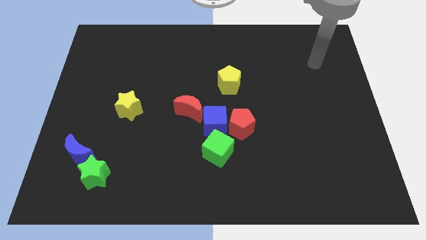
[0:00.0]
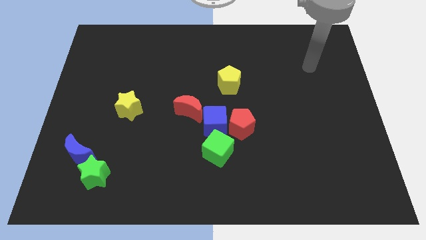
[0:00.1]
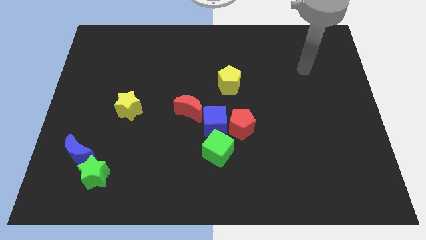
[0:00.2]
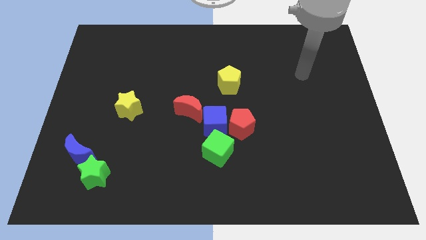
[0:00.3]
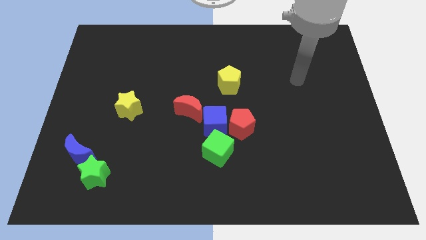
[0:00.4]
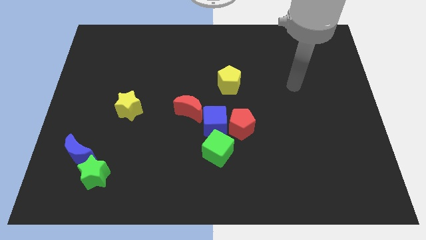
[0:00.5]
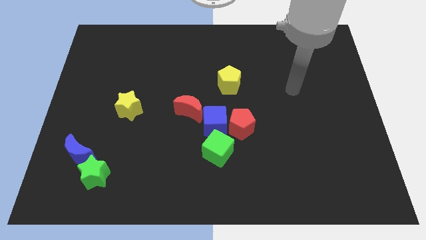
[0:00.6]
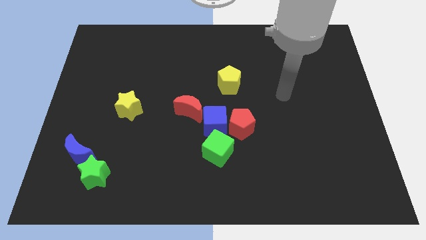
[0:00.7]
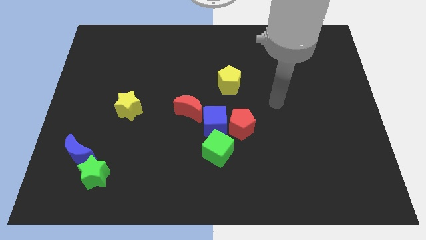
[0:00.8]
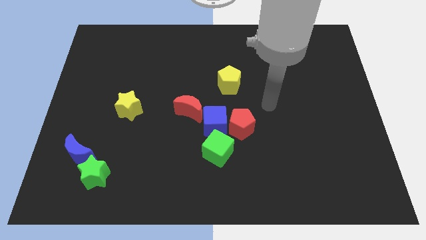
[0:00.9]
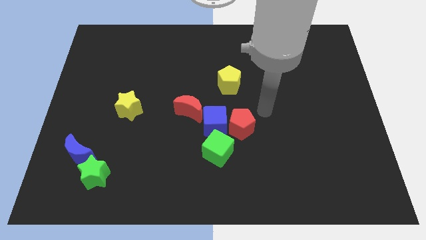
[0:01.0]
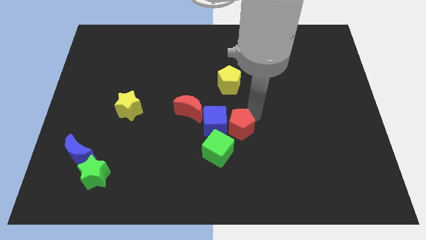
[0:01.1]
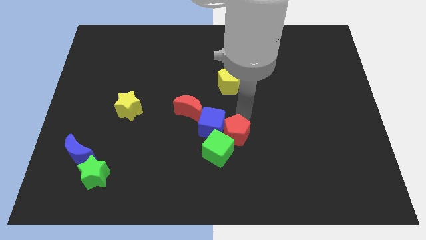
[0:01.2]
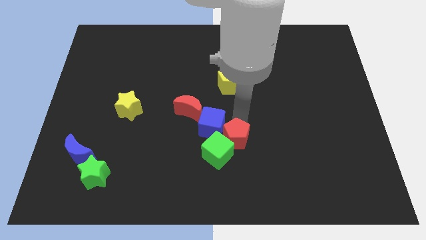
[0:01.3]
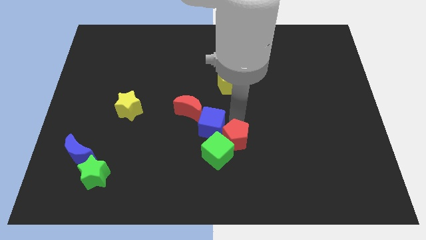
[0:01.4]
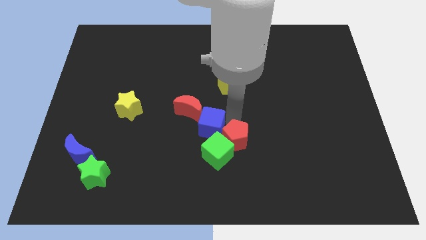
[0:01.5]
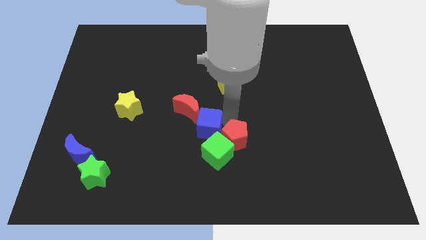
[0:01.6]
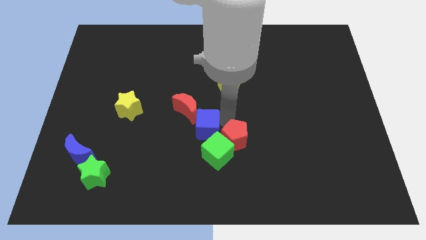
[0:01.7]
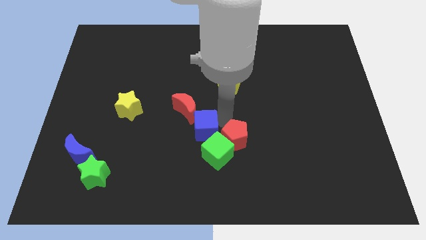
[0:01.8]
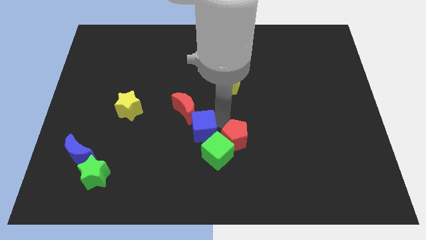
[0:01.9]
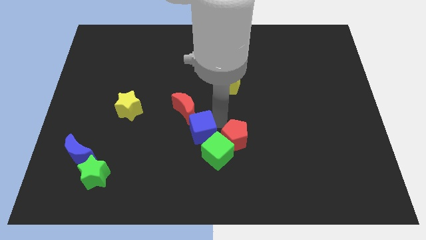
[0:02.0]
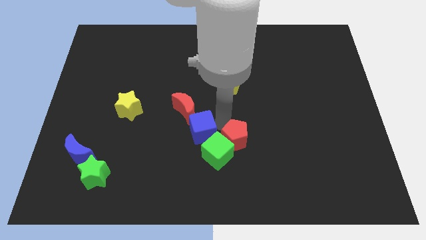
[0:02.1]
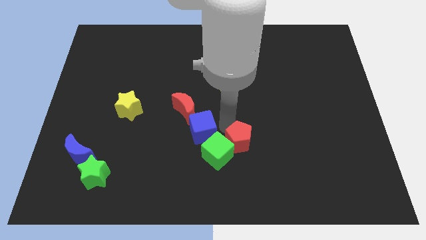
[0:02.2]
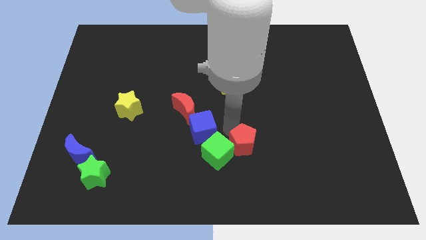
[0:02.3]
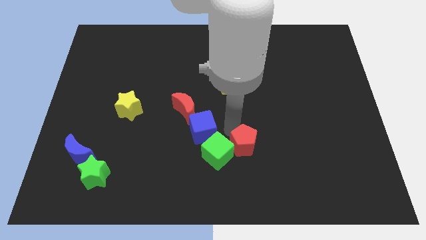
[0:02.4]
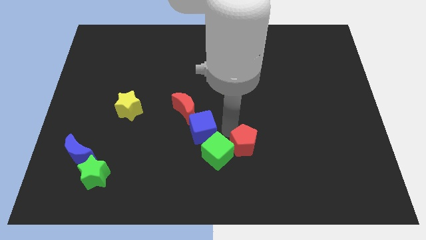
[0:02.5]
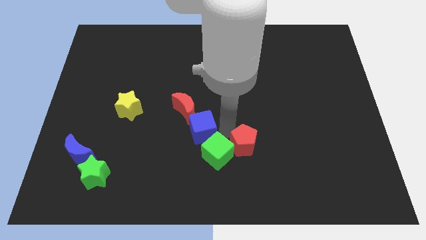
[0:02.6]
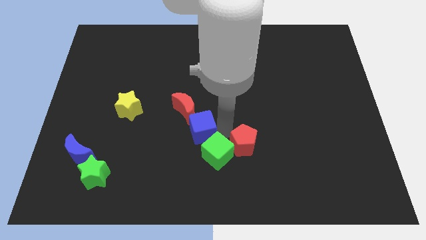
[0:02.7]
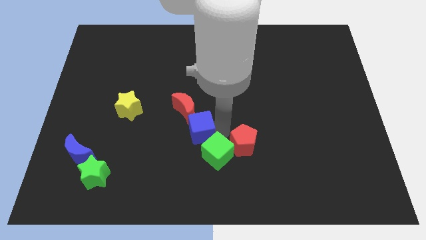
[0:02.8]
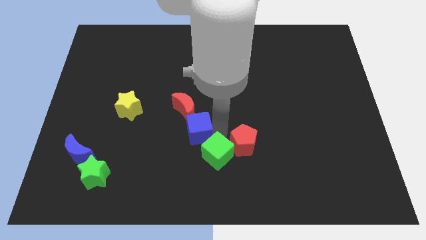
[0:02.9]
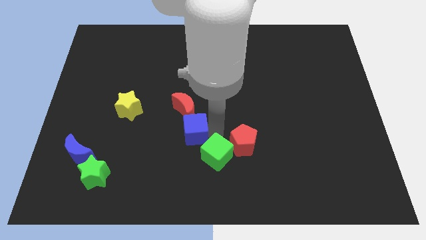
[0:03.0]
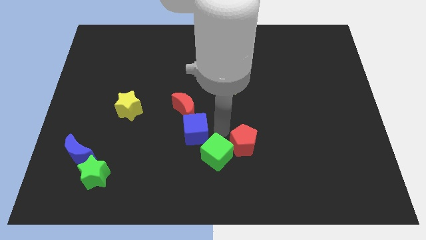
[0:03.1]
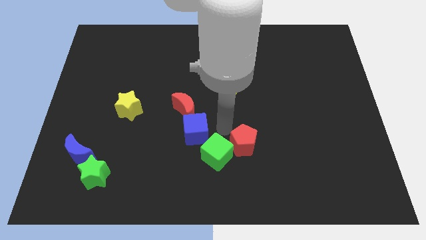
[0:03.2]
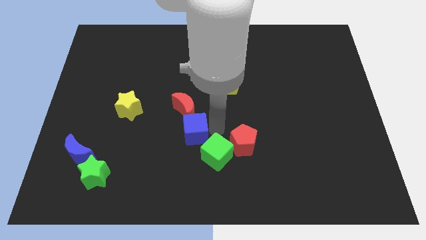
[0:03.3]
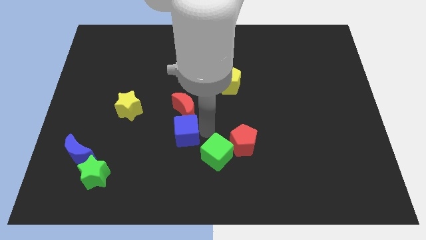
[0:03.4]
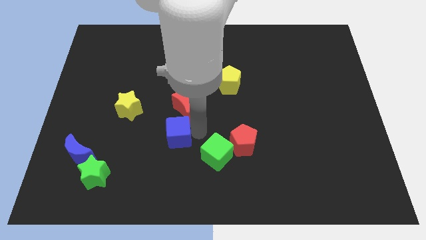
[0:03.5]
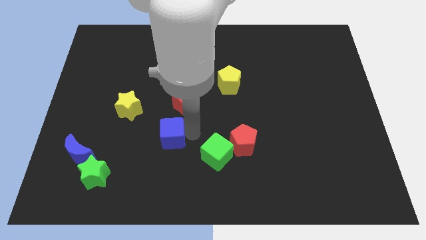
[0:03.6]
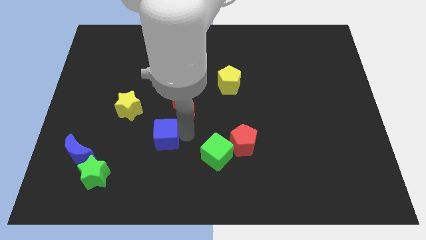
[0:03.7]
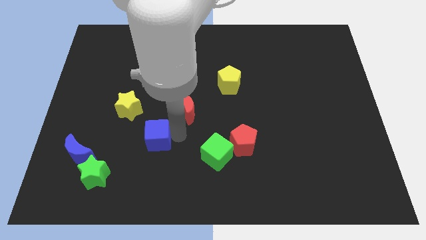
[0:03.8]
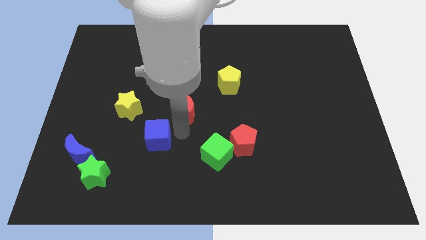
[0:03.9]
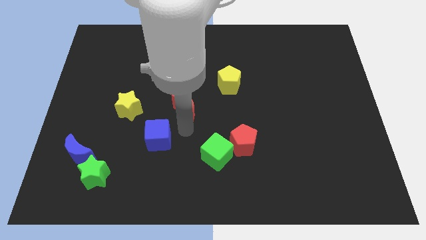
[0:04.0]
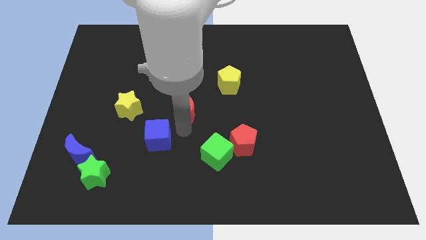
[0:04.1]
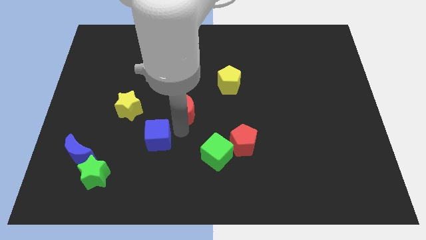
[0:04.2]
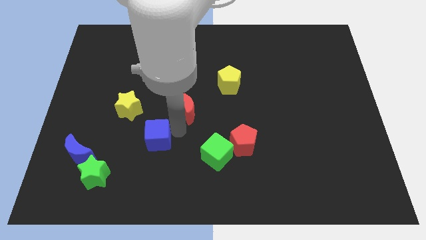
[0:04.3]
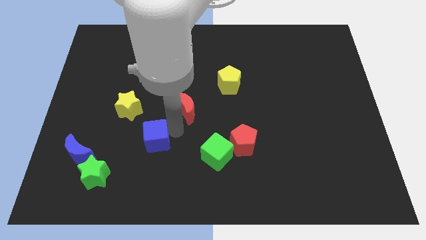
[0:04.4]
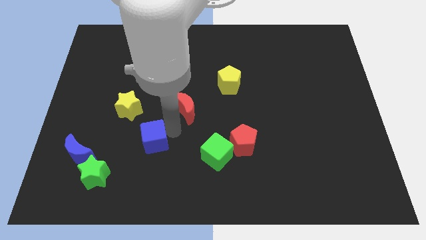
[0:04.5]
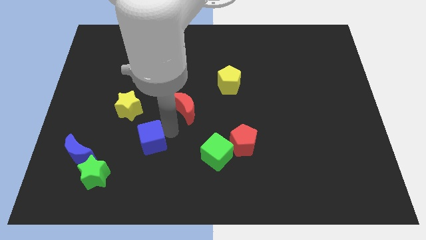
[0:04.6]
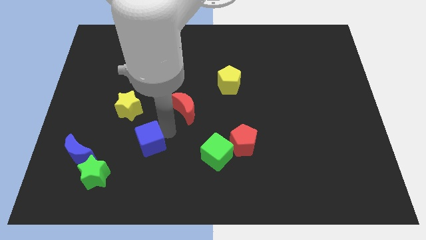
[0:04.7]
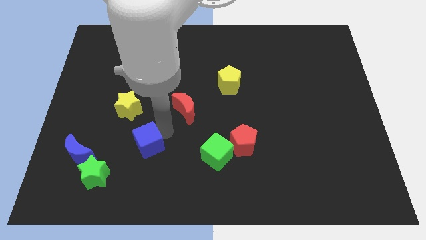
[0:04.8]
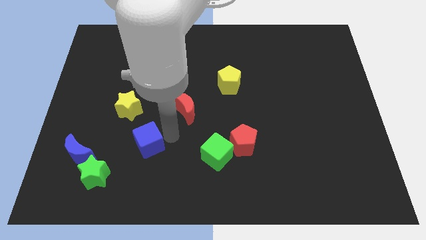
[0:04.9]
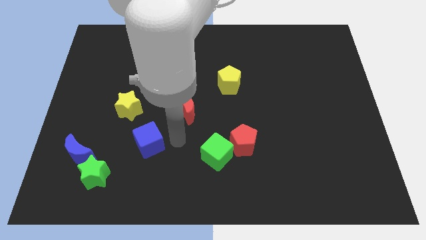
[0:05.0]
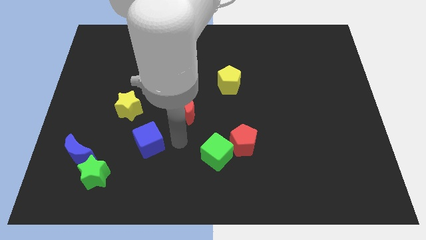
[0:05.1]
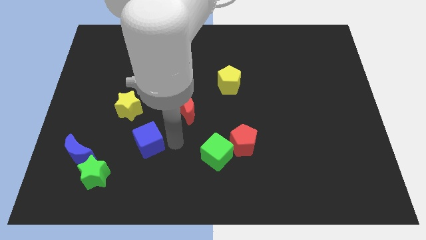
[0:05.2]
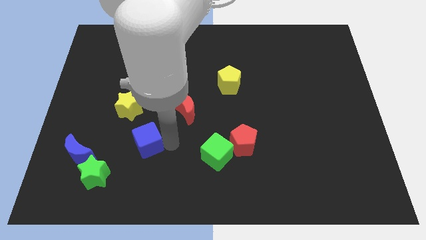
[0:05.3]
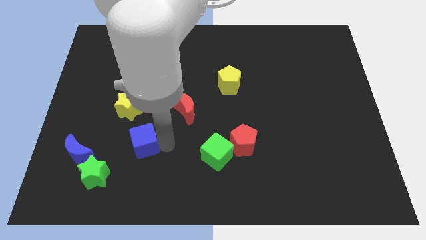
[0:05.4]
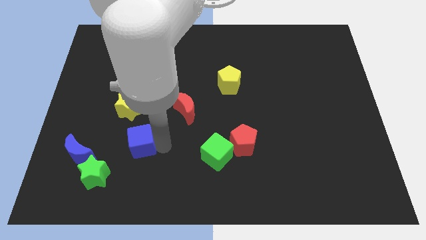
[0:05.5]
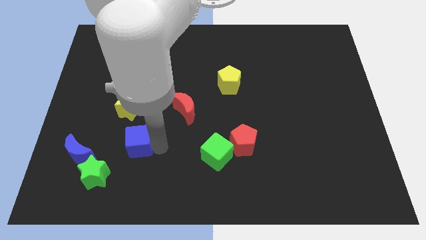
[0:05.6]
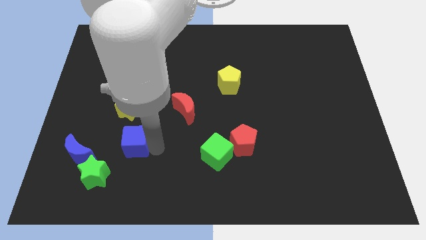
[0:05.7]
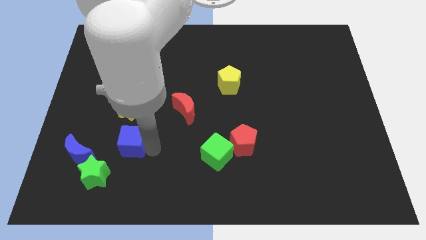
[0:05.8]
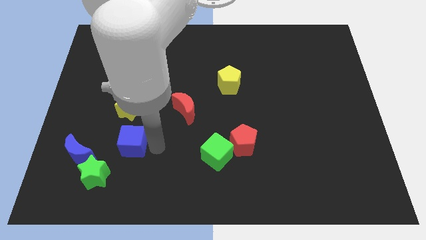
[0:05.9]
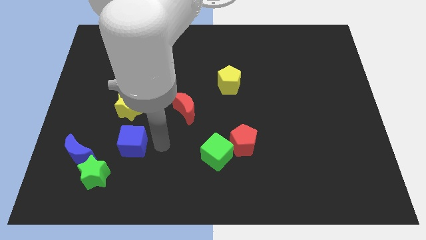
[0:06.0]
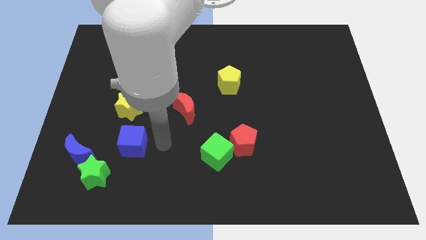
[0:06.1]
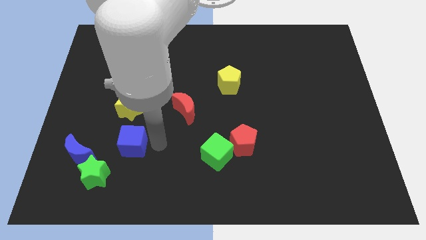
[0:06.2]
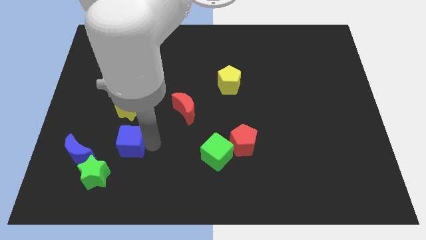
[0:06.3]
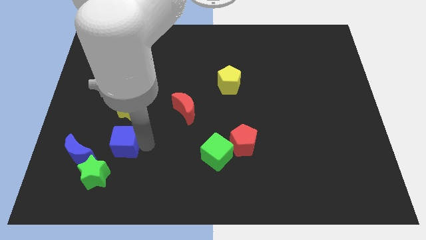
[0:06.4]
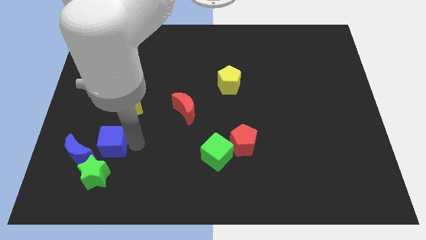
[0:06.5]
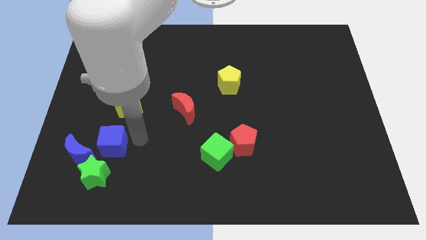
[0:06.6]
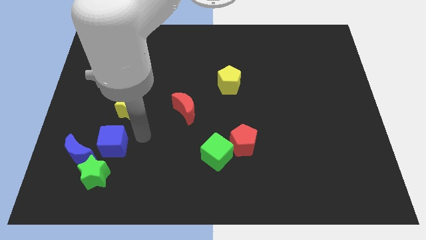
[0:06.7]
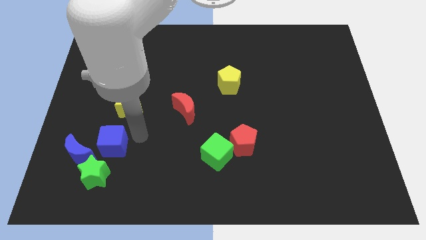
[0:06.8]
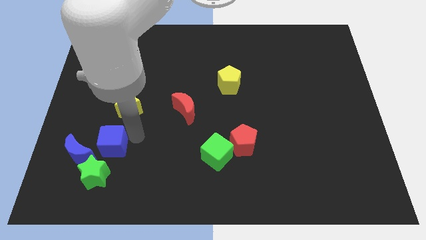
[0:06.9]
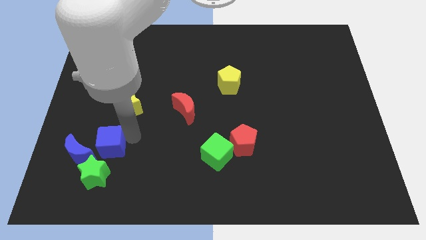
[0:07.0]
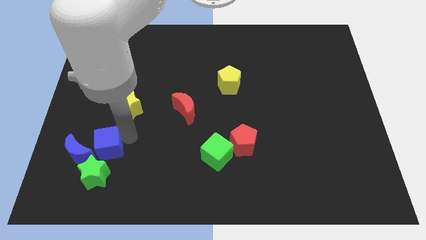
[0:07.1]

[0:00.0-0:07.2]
move the blue cube to the blue moon
